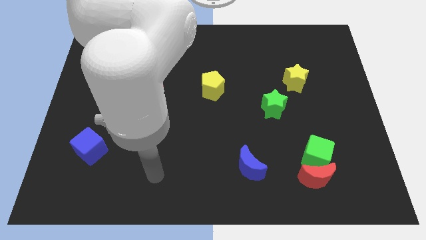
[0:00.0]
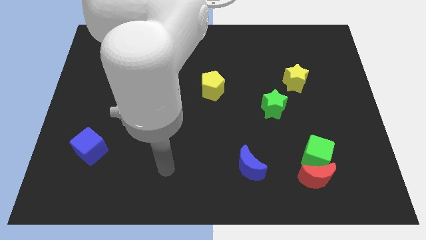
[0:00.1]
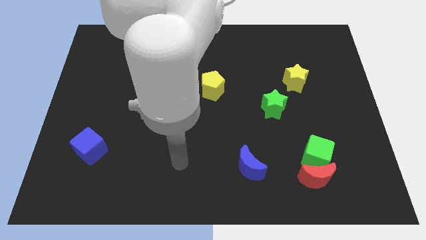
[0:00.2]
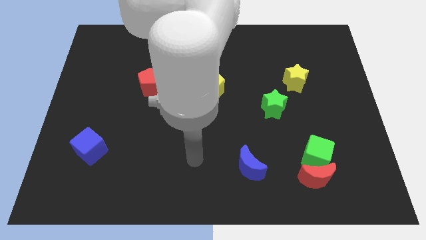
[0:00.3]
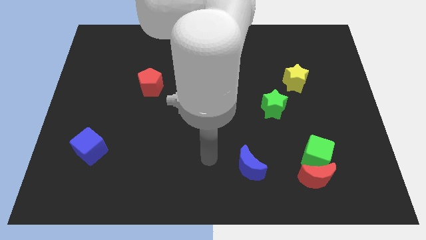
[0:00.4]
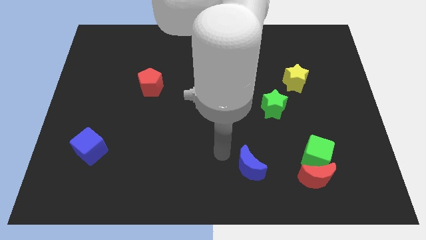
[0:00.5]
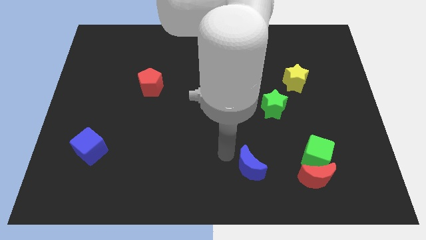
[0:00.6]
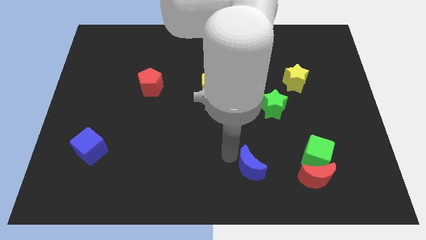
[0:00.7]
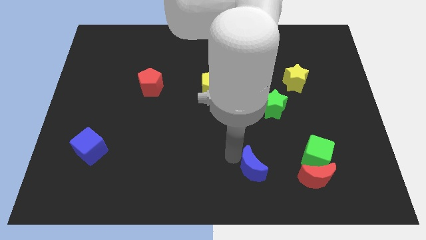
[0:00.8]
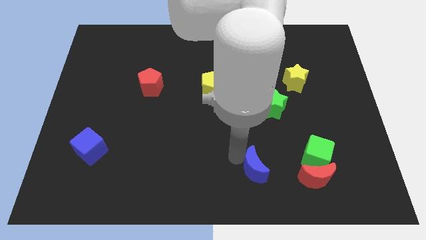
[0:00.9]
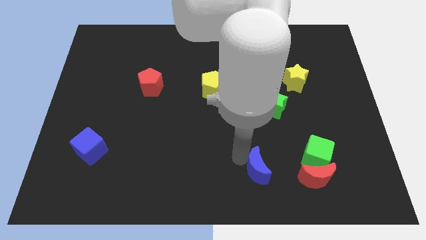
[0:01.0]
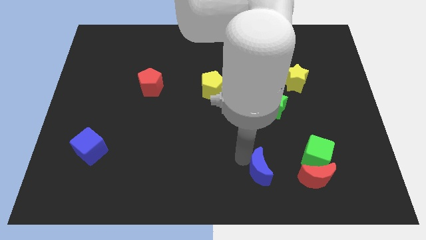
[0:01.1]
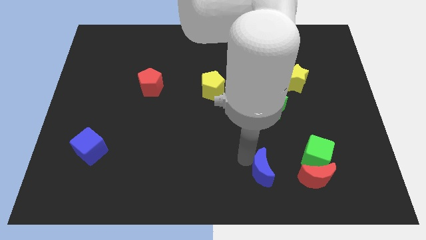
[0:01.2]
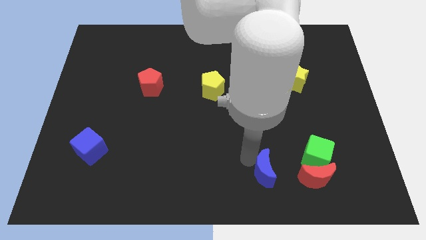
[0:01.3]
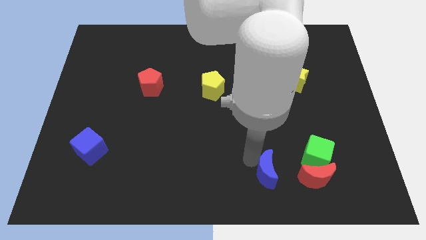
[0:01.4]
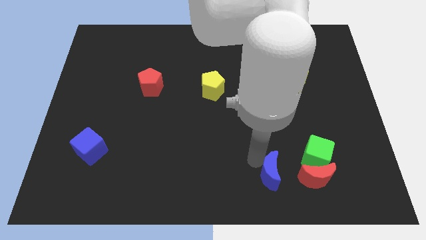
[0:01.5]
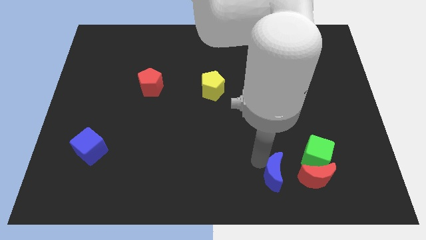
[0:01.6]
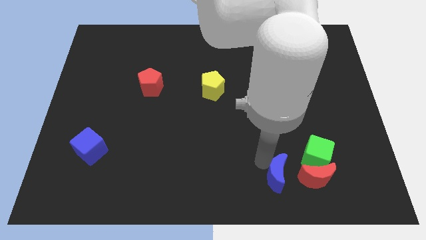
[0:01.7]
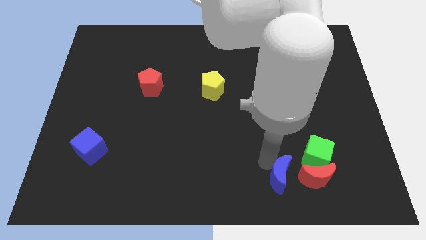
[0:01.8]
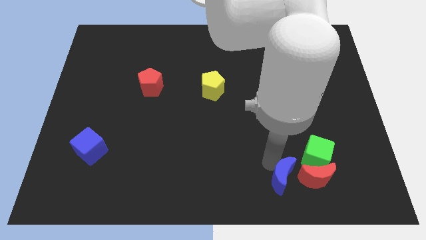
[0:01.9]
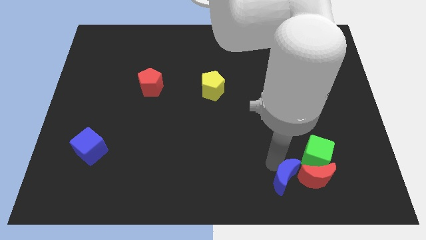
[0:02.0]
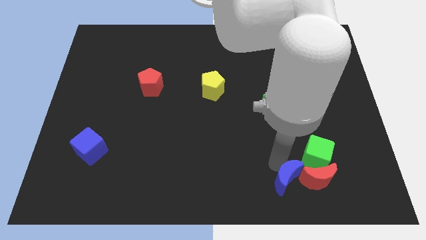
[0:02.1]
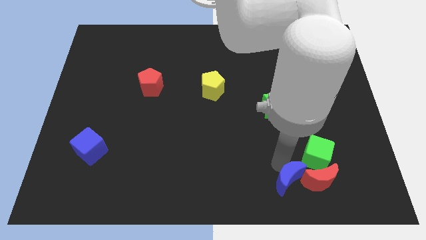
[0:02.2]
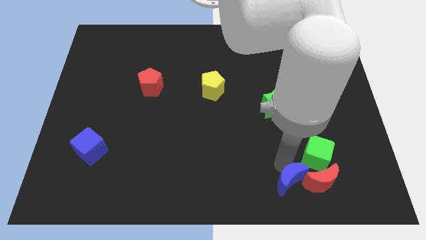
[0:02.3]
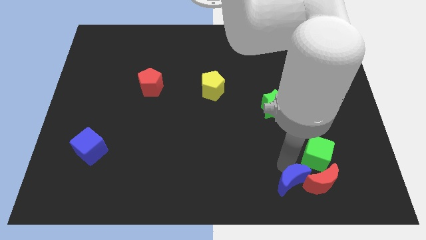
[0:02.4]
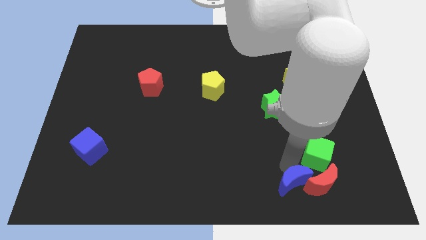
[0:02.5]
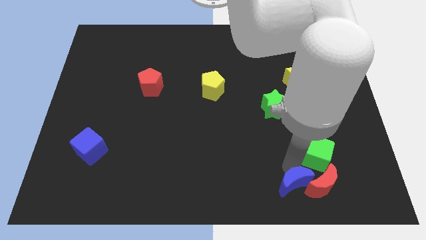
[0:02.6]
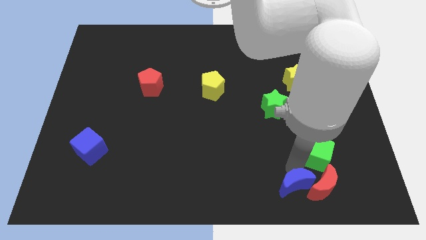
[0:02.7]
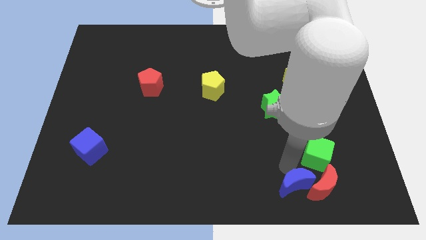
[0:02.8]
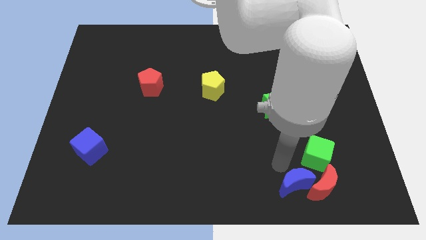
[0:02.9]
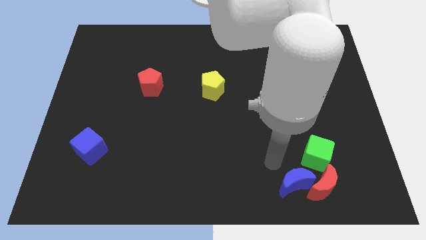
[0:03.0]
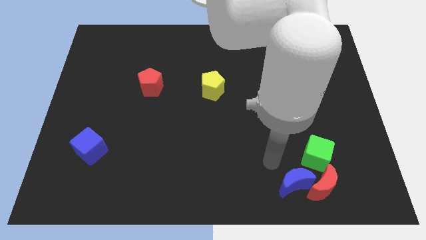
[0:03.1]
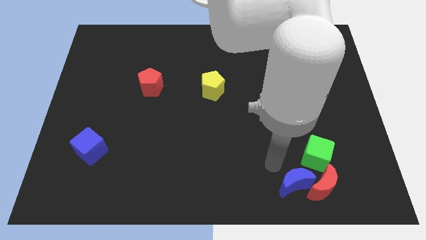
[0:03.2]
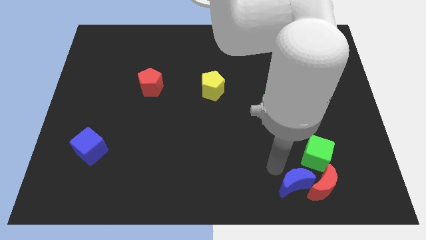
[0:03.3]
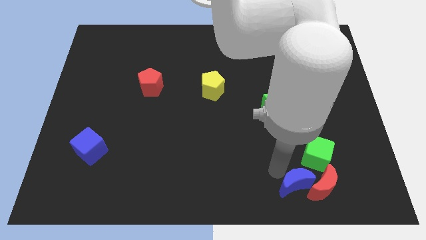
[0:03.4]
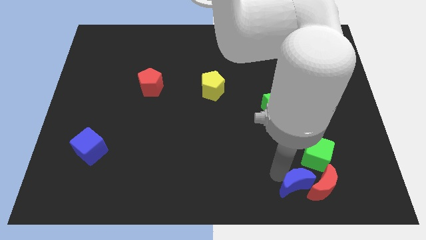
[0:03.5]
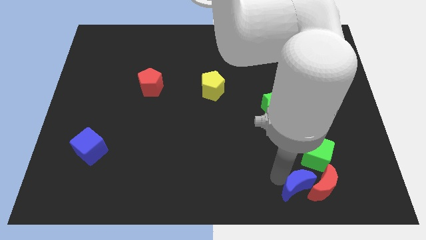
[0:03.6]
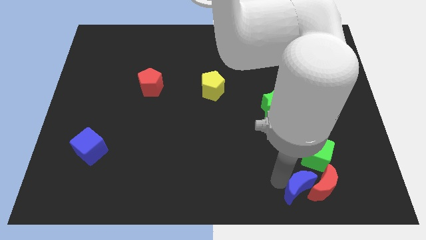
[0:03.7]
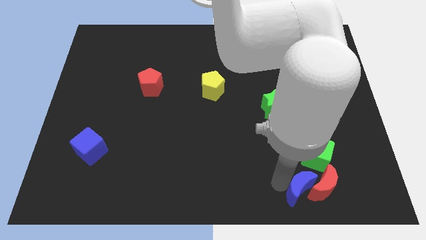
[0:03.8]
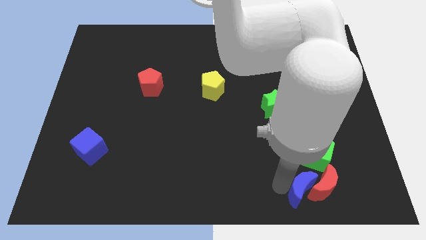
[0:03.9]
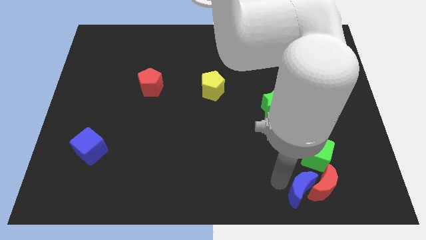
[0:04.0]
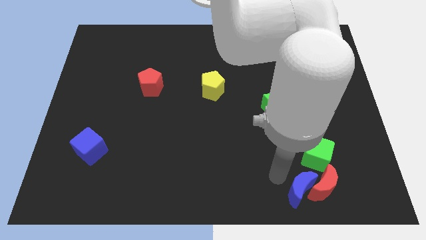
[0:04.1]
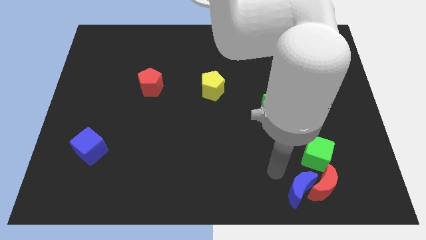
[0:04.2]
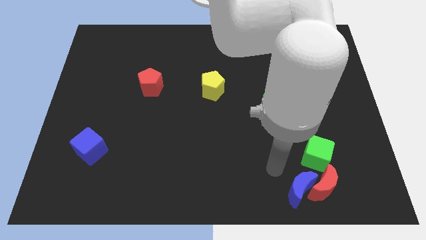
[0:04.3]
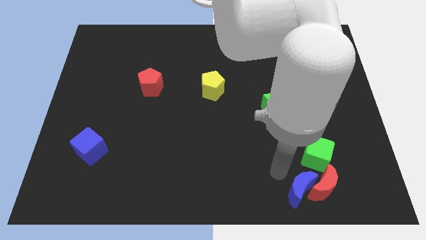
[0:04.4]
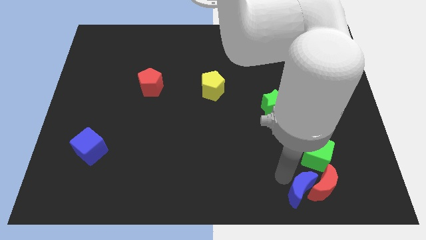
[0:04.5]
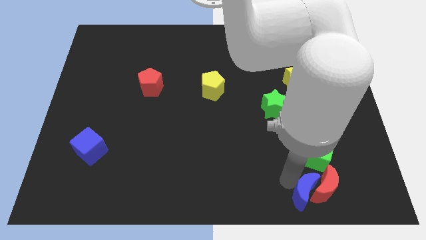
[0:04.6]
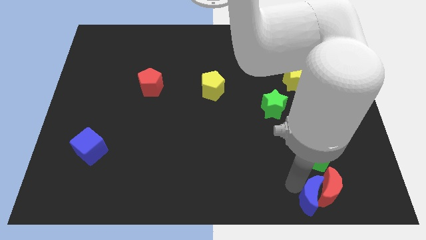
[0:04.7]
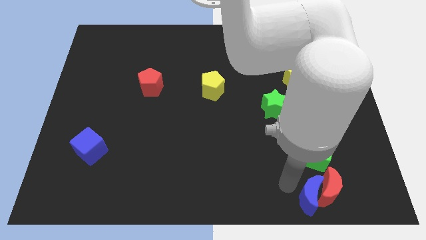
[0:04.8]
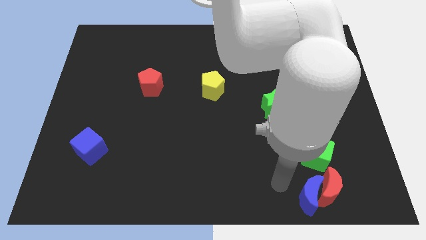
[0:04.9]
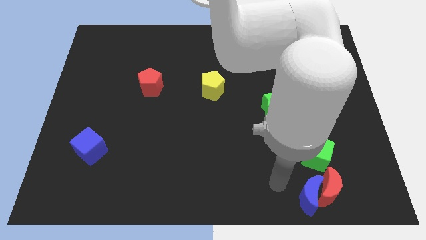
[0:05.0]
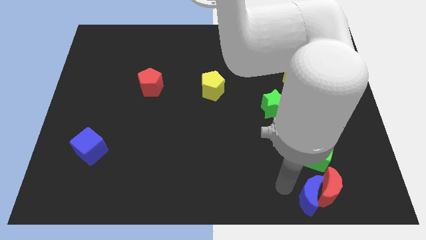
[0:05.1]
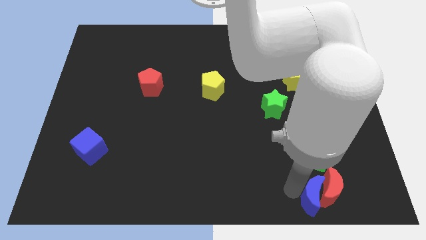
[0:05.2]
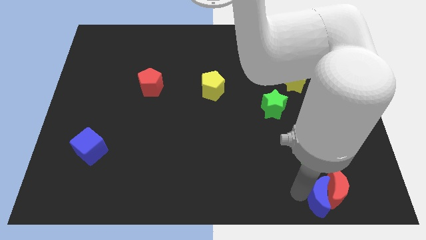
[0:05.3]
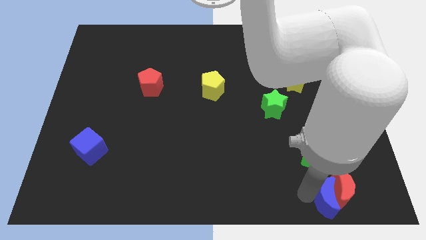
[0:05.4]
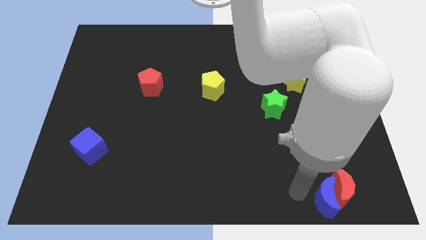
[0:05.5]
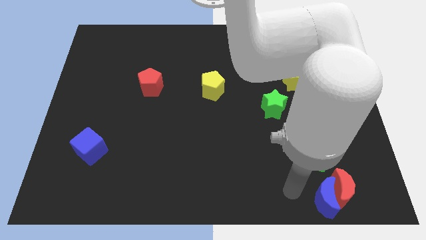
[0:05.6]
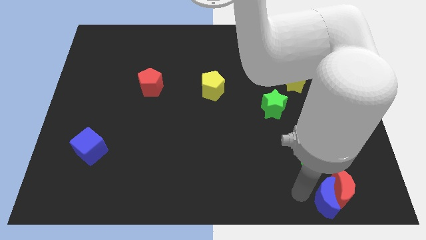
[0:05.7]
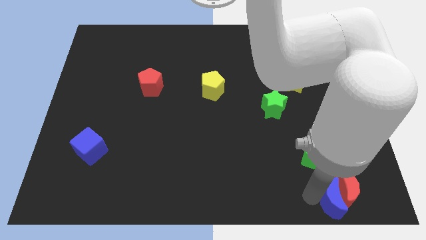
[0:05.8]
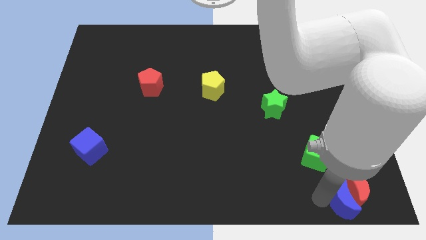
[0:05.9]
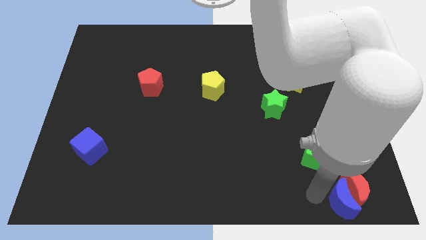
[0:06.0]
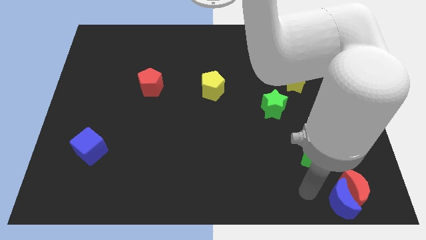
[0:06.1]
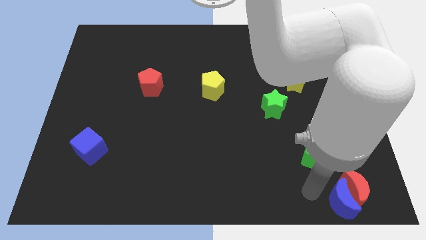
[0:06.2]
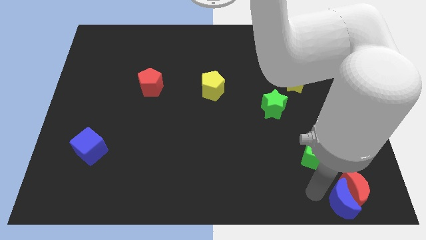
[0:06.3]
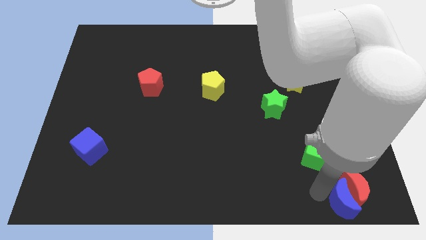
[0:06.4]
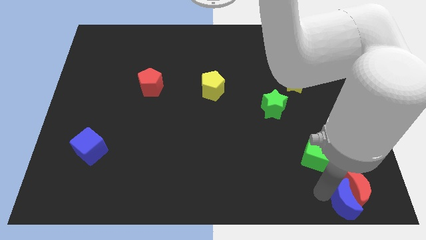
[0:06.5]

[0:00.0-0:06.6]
move the blue moon to the bottom right

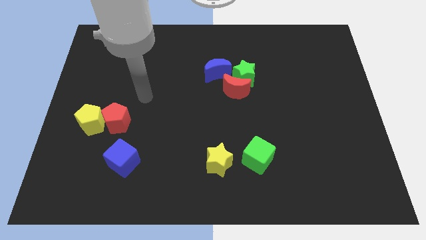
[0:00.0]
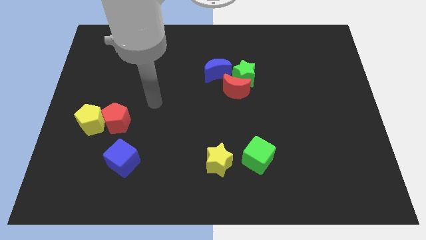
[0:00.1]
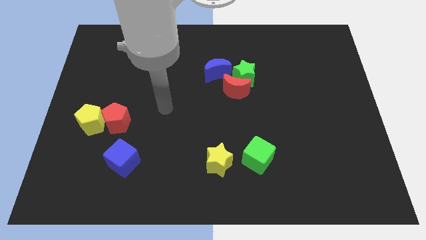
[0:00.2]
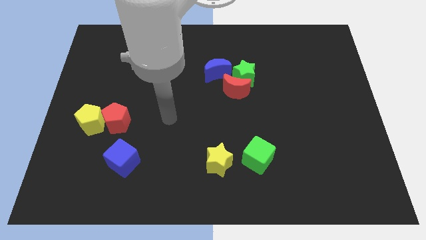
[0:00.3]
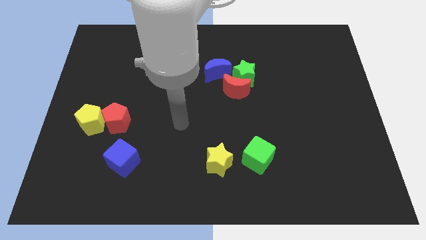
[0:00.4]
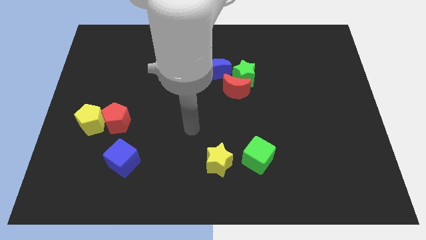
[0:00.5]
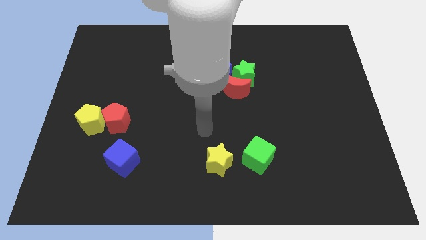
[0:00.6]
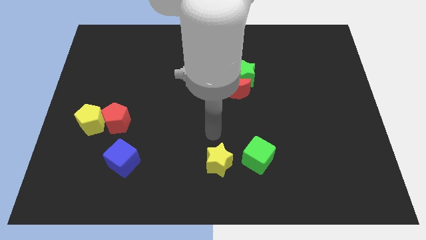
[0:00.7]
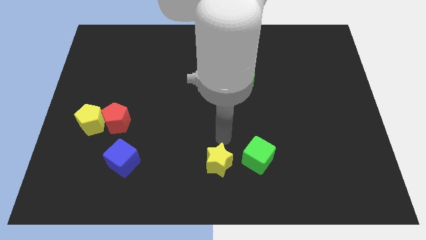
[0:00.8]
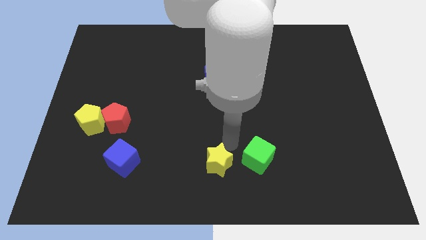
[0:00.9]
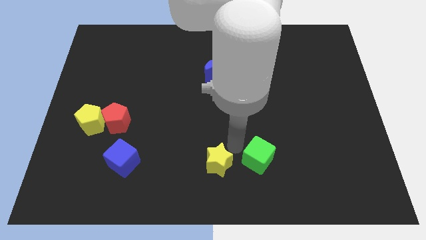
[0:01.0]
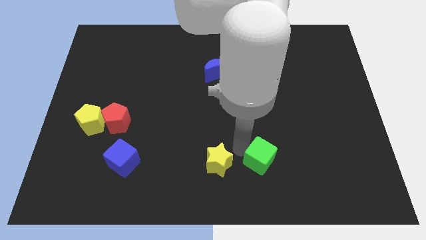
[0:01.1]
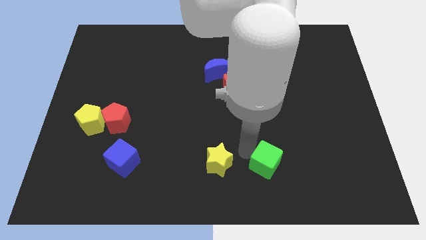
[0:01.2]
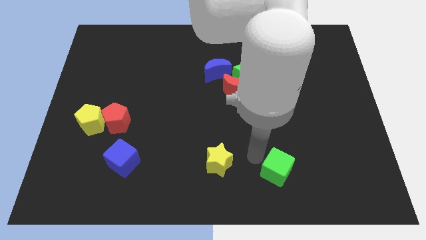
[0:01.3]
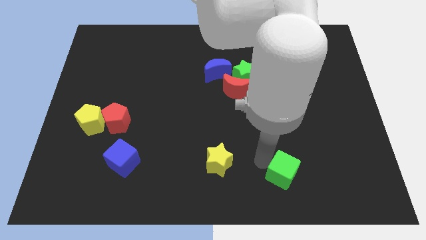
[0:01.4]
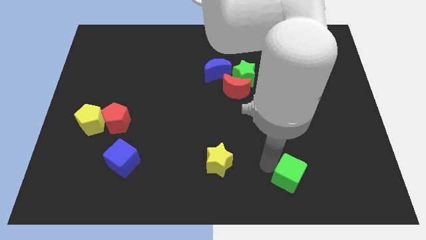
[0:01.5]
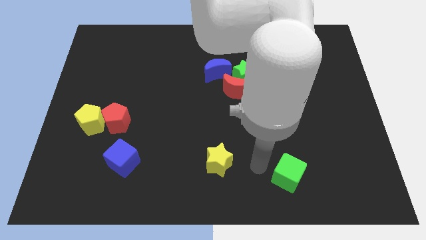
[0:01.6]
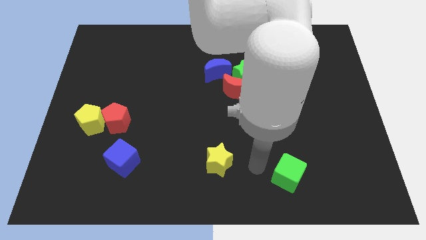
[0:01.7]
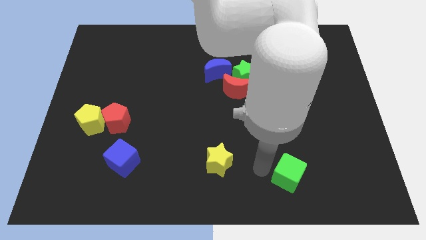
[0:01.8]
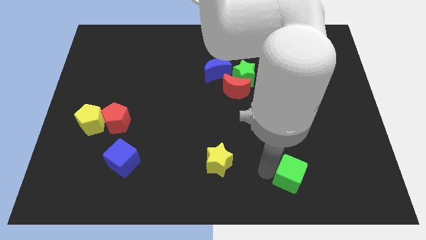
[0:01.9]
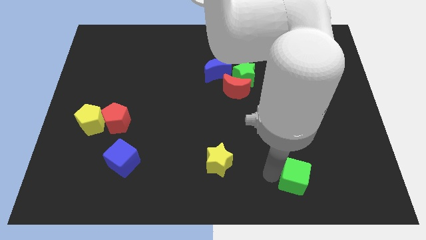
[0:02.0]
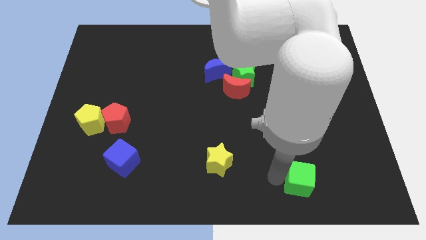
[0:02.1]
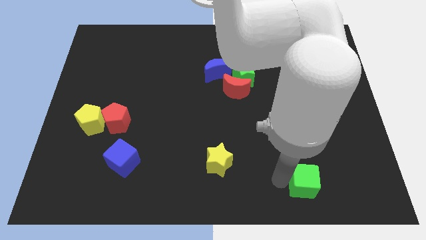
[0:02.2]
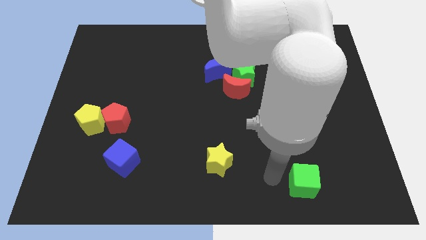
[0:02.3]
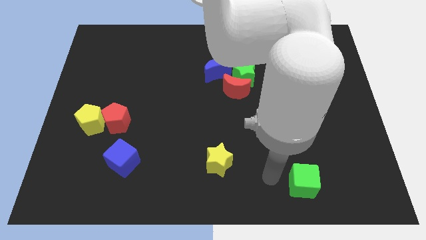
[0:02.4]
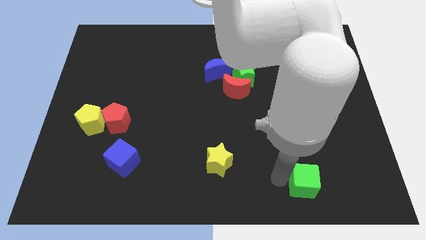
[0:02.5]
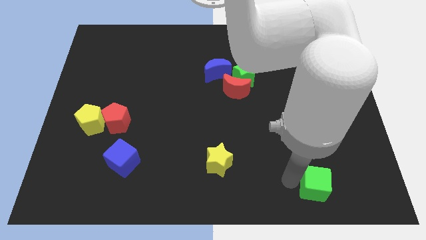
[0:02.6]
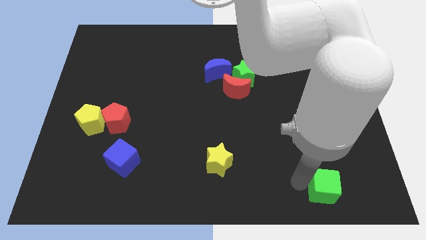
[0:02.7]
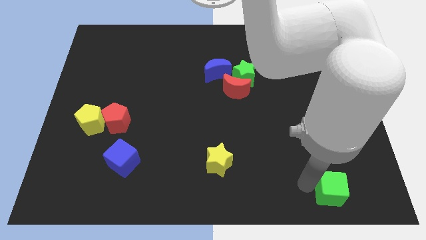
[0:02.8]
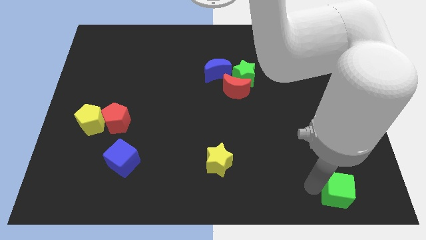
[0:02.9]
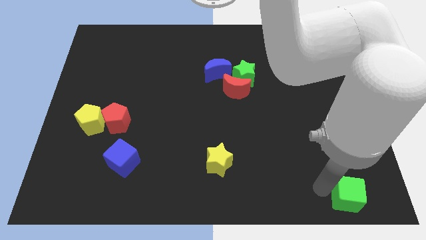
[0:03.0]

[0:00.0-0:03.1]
move the green cube to the bottom right
